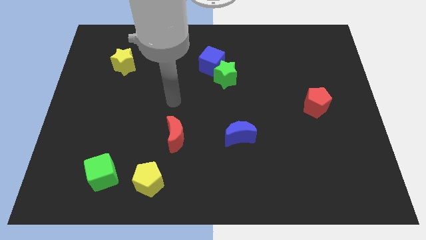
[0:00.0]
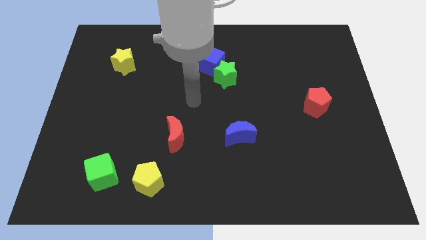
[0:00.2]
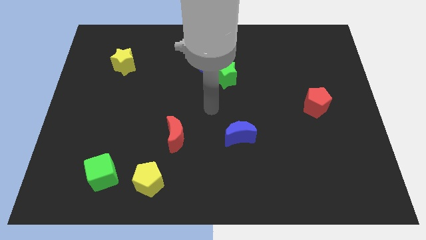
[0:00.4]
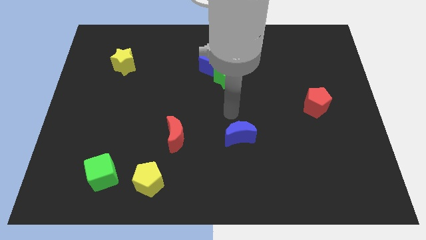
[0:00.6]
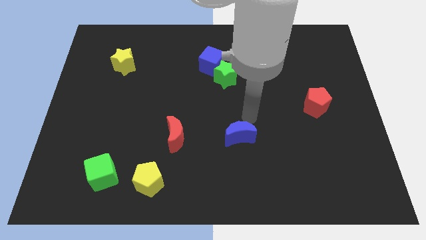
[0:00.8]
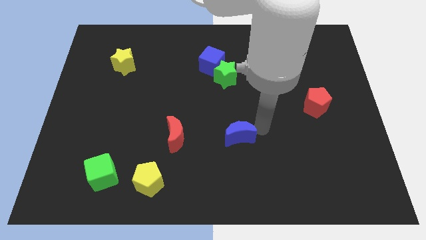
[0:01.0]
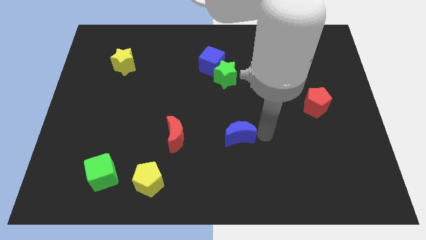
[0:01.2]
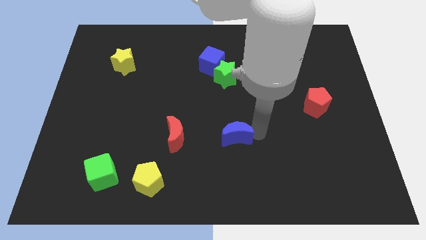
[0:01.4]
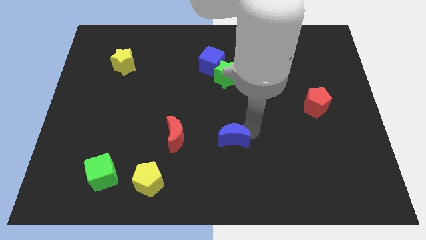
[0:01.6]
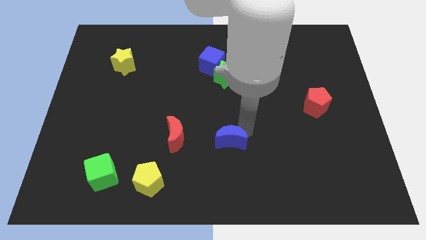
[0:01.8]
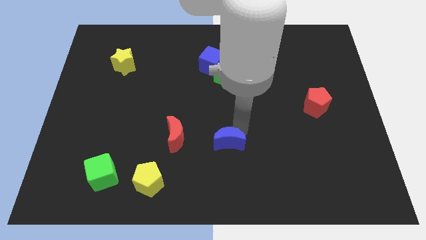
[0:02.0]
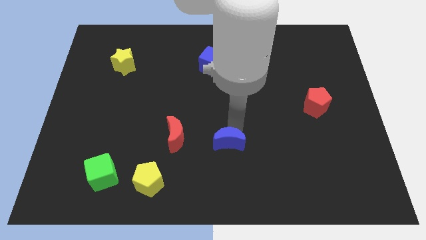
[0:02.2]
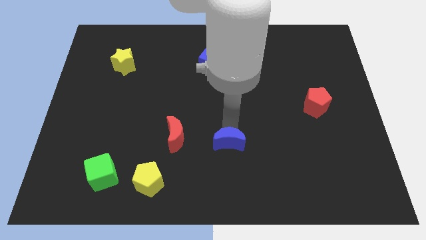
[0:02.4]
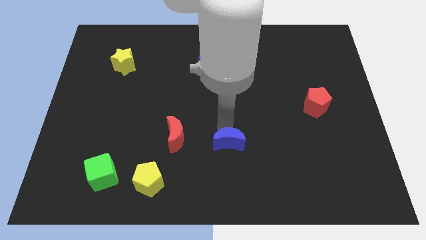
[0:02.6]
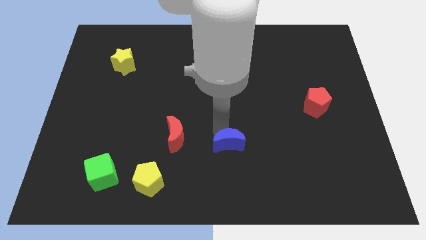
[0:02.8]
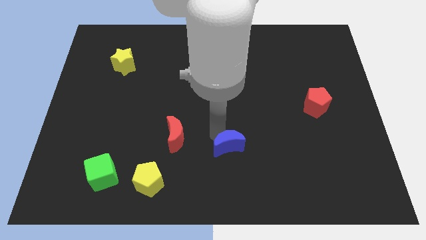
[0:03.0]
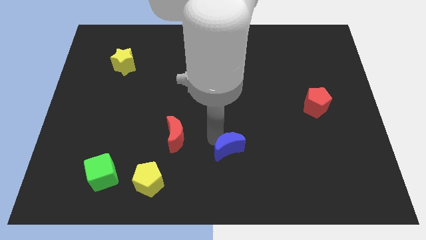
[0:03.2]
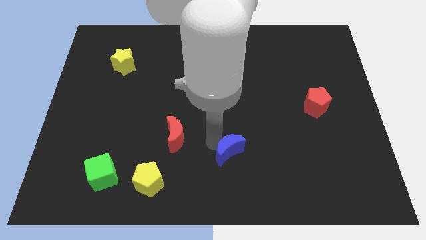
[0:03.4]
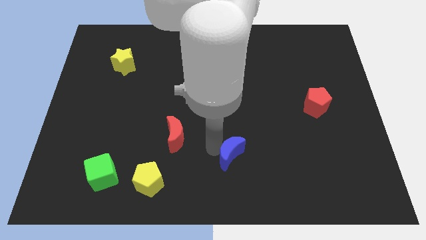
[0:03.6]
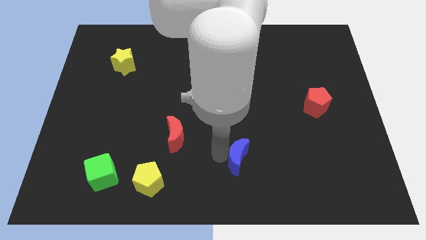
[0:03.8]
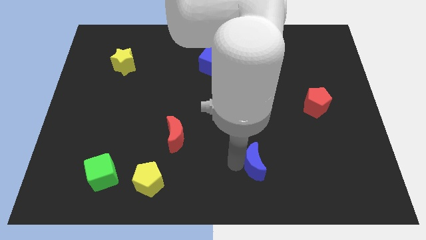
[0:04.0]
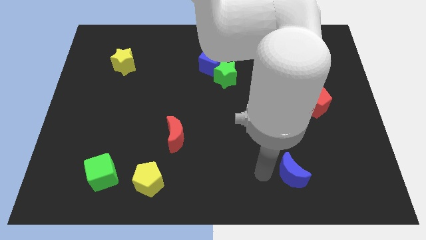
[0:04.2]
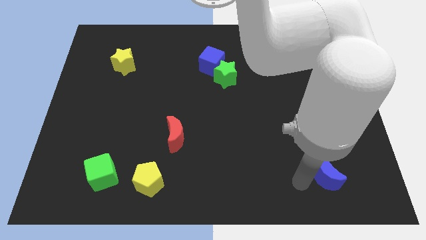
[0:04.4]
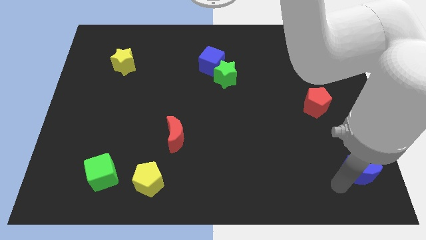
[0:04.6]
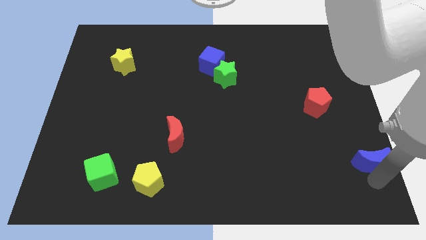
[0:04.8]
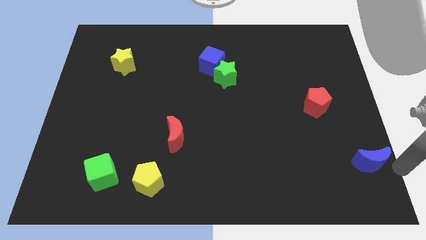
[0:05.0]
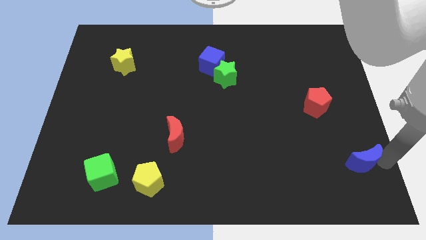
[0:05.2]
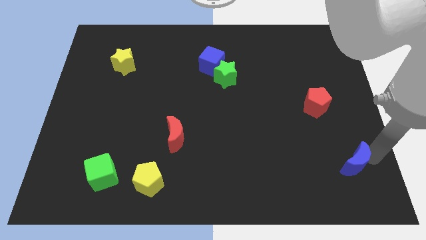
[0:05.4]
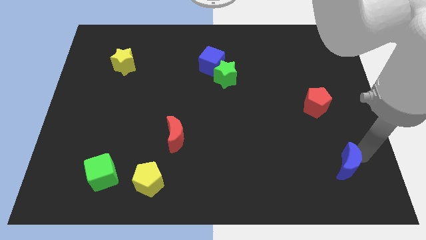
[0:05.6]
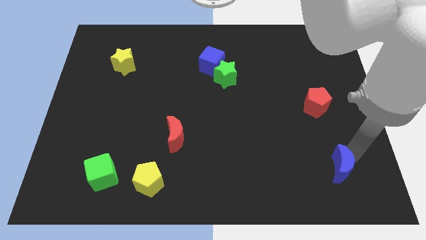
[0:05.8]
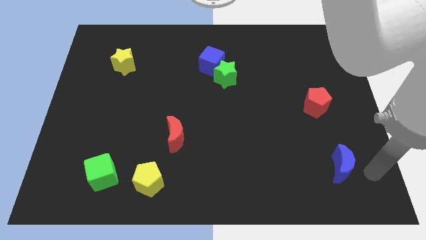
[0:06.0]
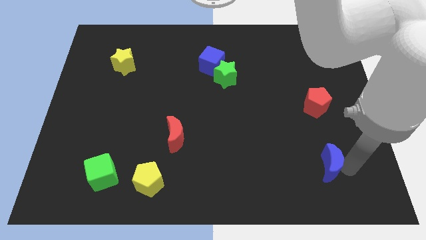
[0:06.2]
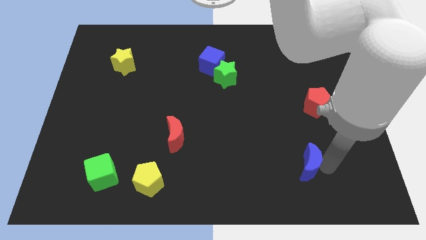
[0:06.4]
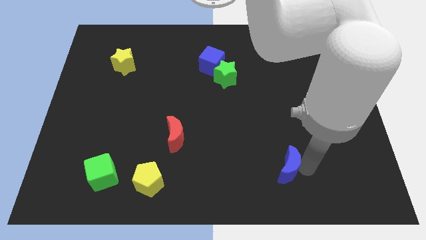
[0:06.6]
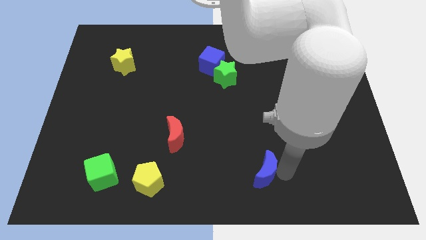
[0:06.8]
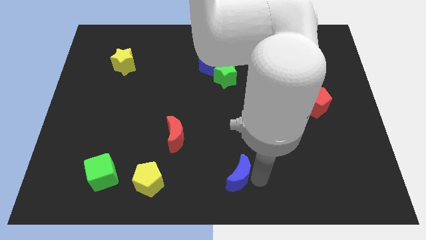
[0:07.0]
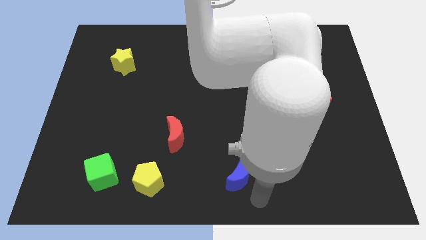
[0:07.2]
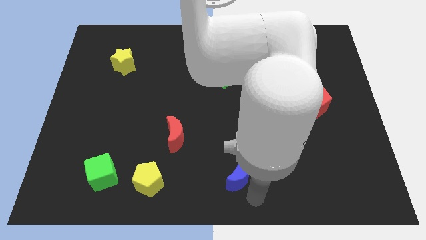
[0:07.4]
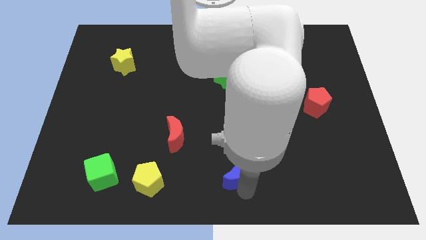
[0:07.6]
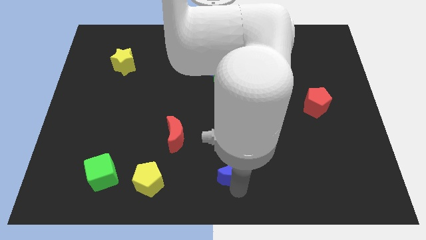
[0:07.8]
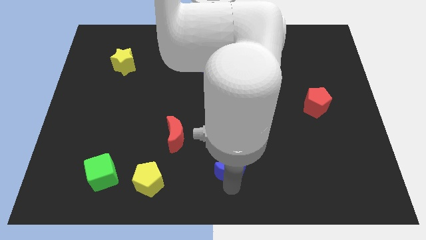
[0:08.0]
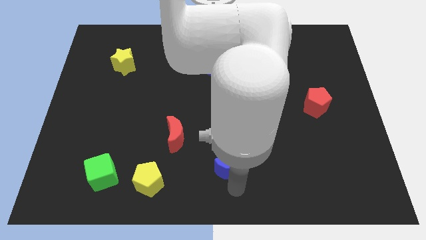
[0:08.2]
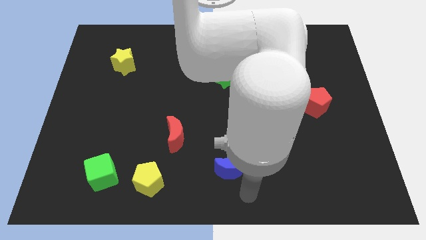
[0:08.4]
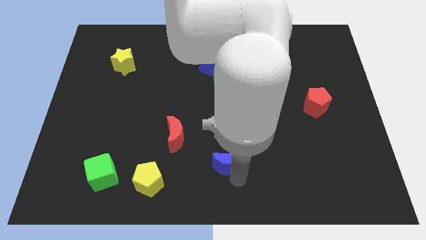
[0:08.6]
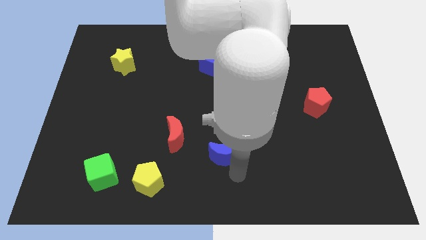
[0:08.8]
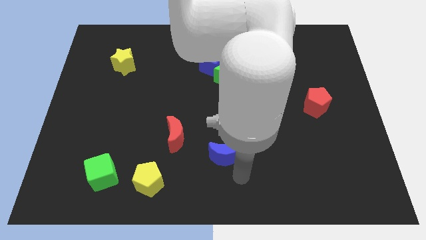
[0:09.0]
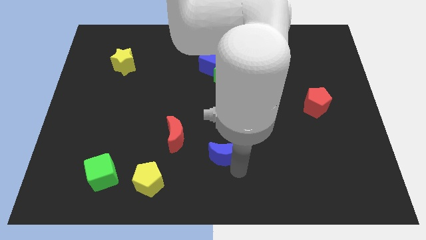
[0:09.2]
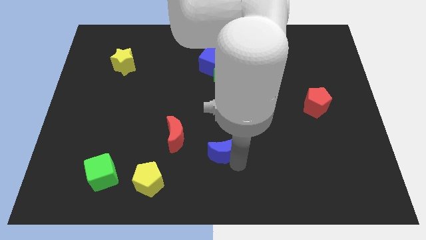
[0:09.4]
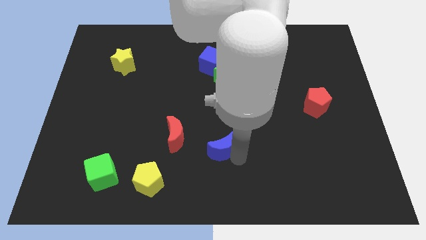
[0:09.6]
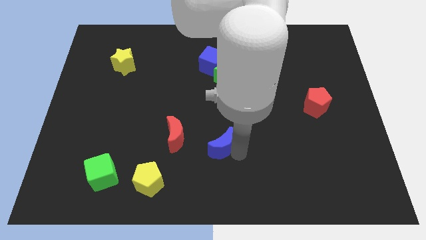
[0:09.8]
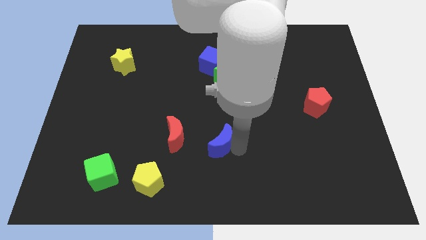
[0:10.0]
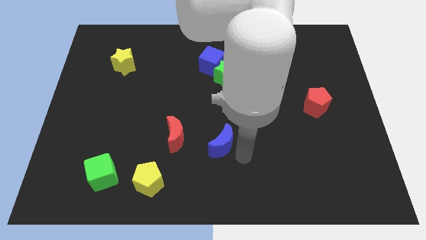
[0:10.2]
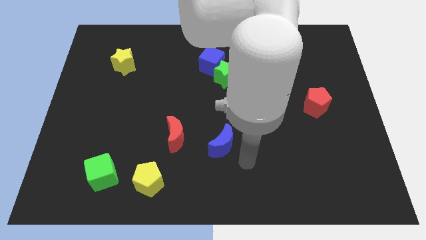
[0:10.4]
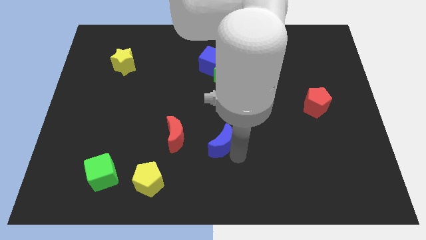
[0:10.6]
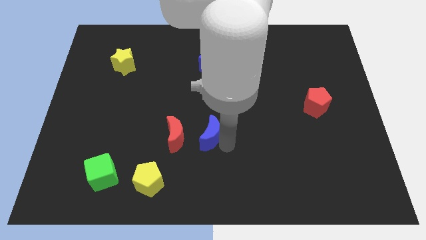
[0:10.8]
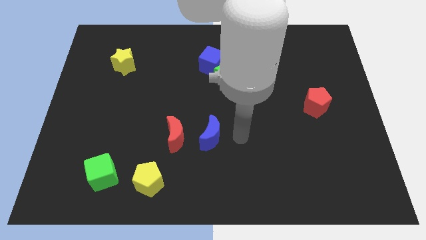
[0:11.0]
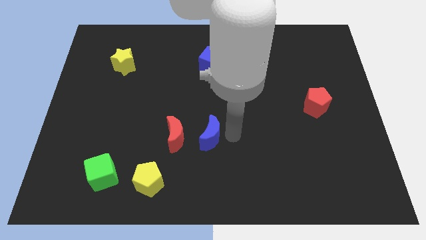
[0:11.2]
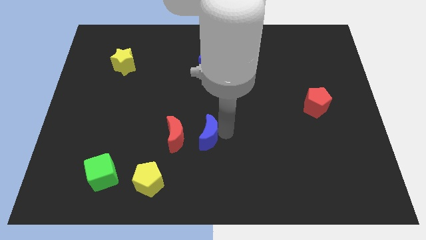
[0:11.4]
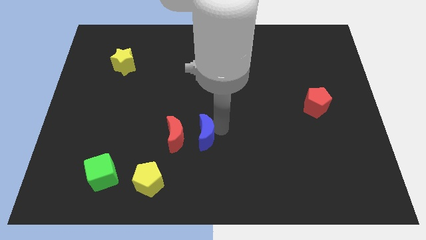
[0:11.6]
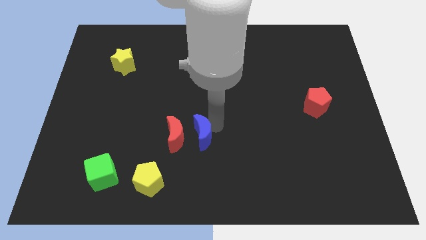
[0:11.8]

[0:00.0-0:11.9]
put the blue moon towards the red moon
